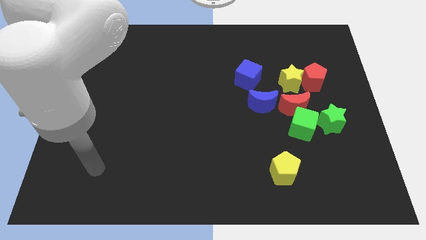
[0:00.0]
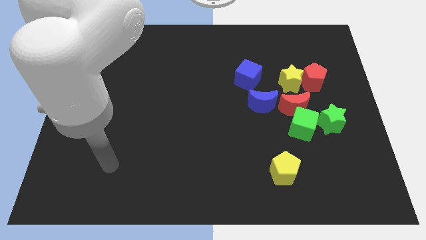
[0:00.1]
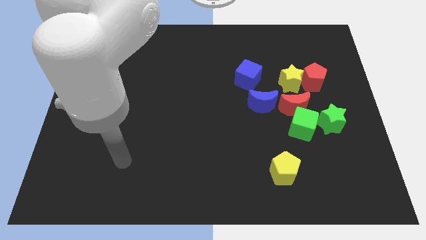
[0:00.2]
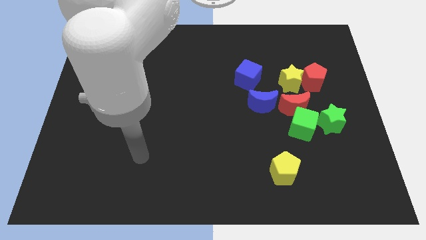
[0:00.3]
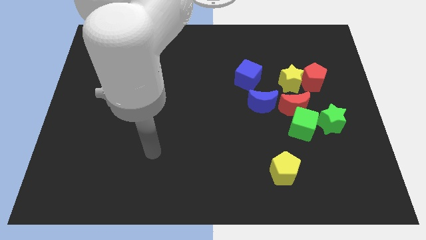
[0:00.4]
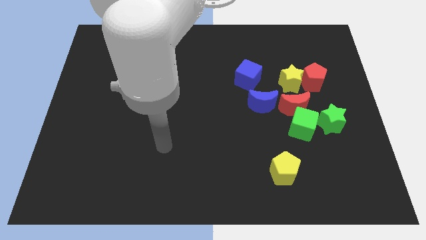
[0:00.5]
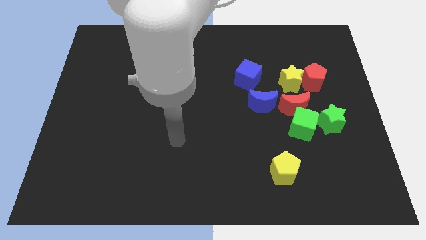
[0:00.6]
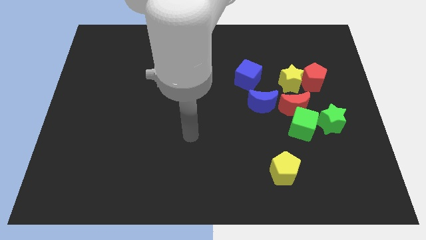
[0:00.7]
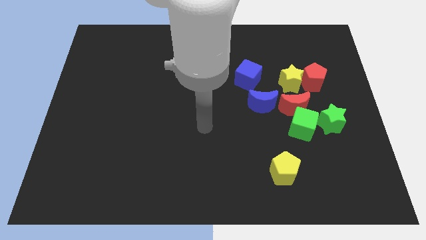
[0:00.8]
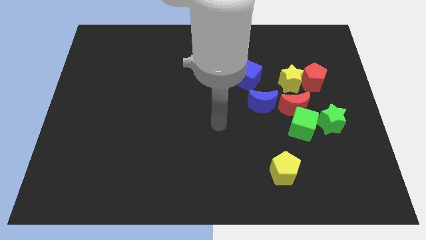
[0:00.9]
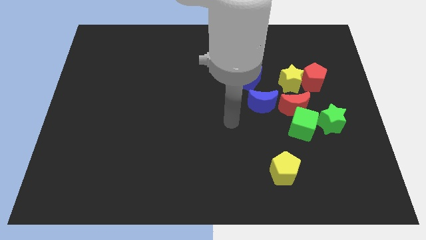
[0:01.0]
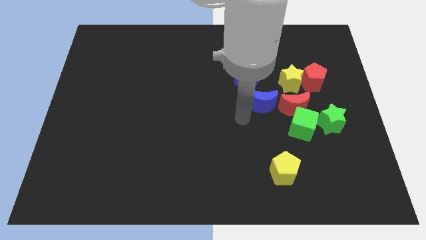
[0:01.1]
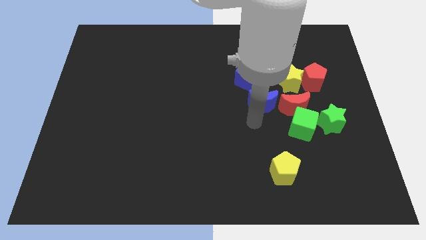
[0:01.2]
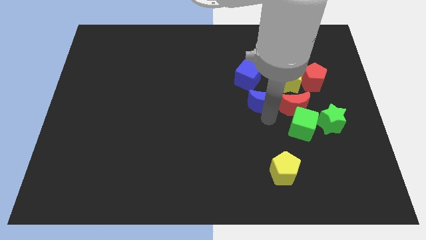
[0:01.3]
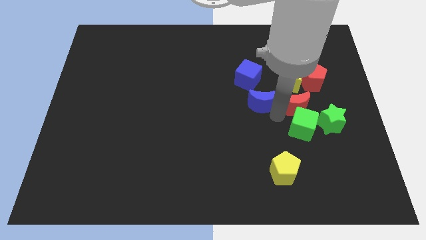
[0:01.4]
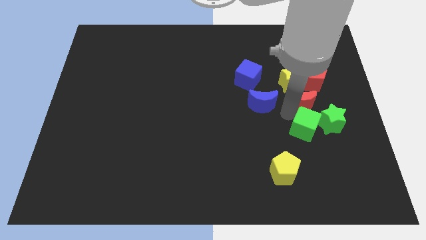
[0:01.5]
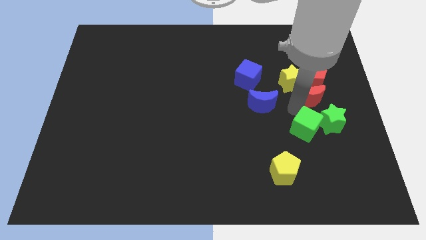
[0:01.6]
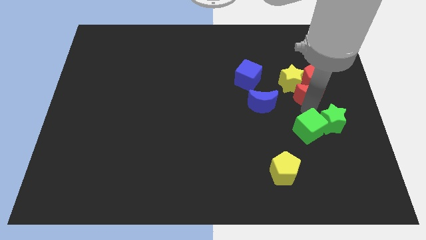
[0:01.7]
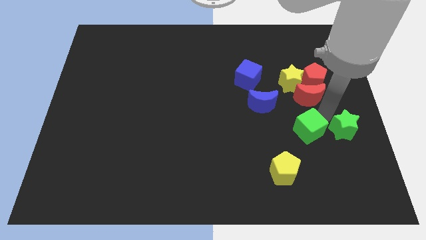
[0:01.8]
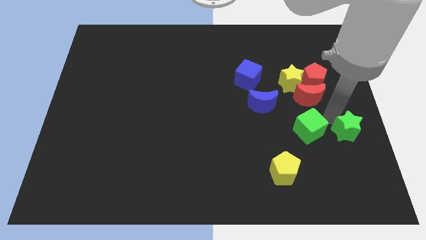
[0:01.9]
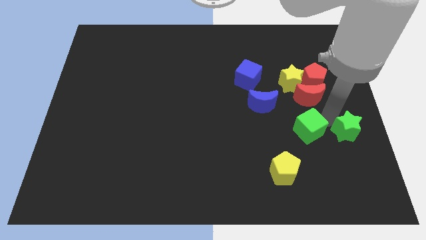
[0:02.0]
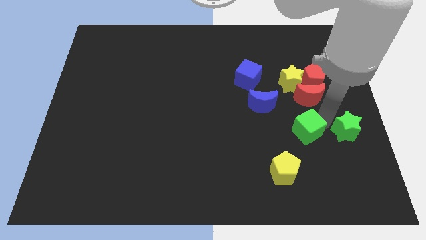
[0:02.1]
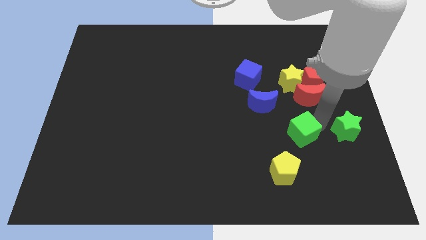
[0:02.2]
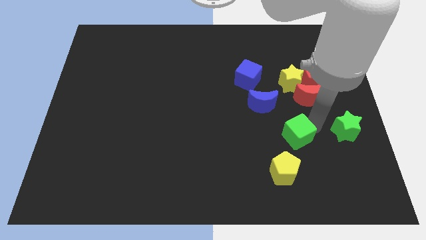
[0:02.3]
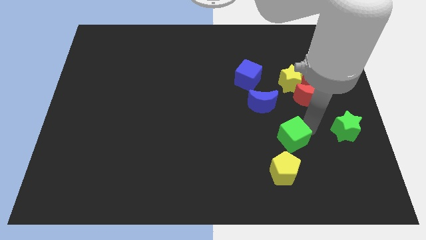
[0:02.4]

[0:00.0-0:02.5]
move the green cube away from the red moon and green star

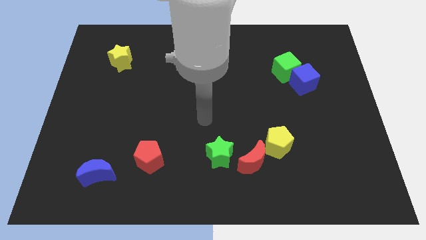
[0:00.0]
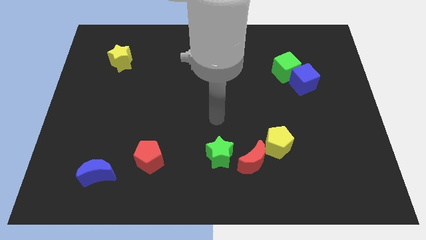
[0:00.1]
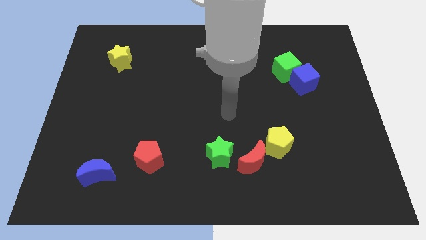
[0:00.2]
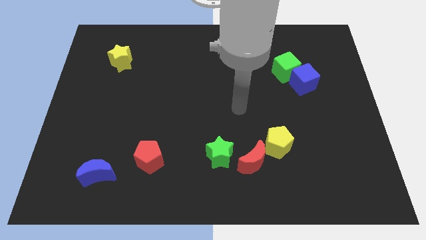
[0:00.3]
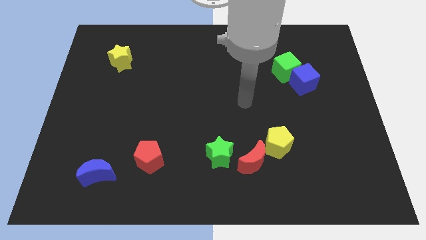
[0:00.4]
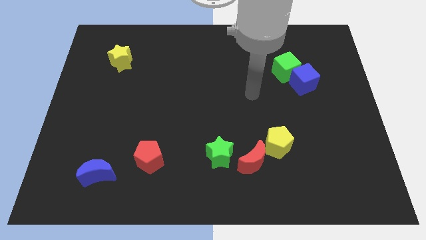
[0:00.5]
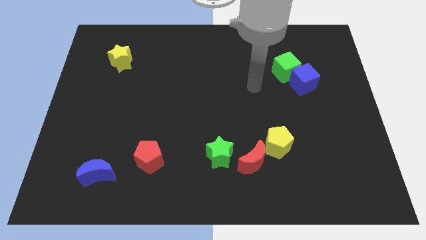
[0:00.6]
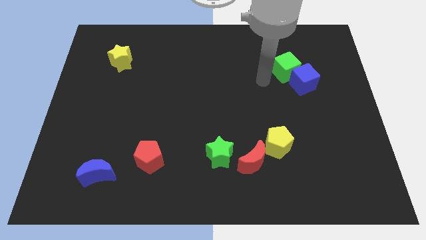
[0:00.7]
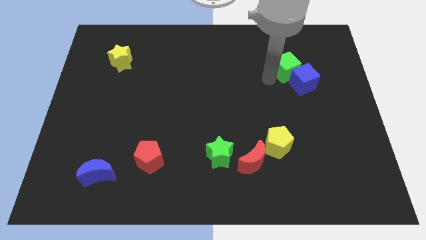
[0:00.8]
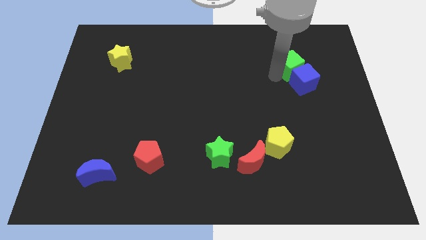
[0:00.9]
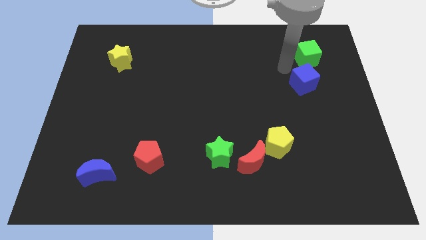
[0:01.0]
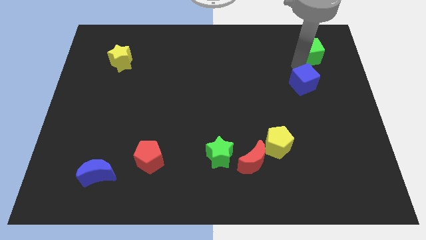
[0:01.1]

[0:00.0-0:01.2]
separate the blue cube from the green cube

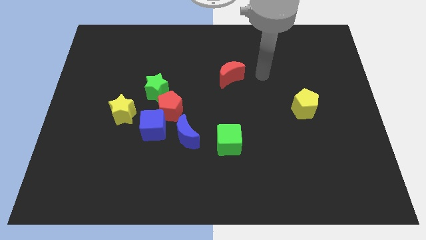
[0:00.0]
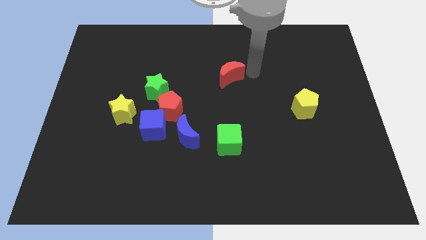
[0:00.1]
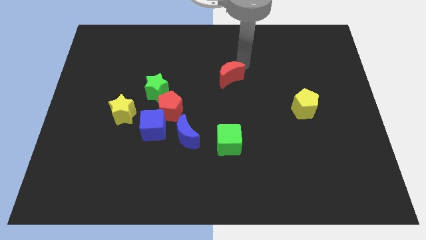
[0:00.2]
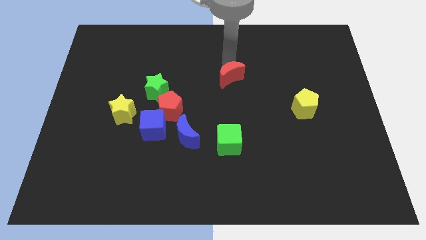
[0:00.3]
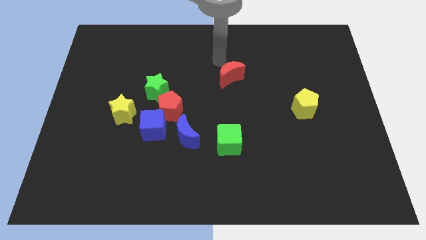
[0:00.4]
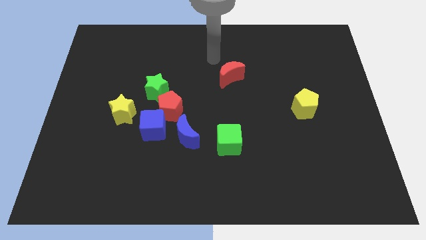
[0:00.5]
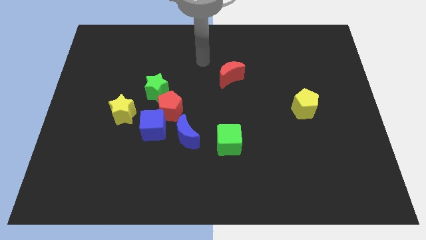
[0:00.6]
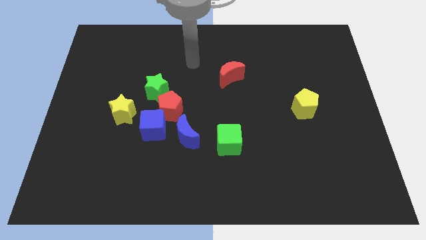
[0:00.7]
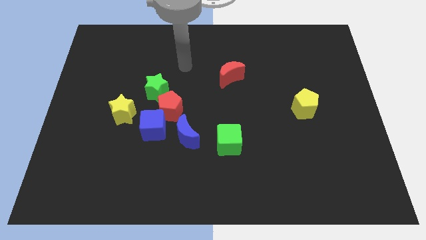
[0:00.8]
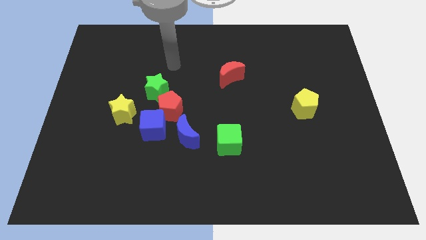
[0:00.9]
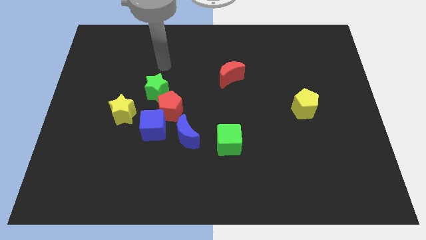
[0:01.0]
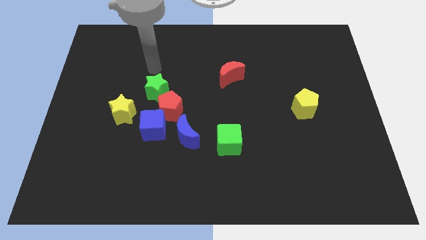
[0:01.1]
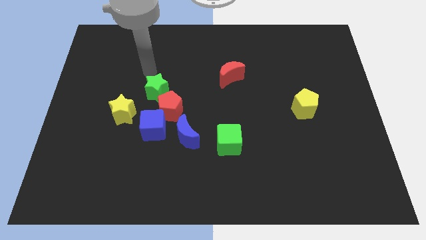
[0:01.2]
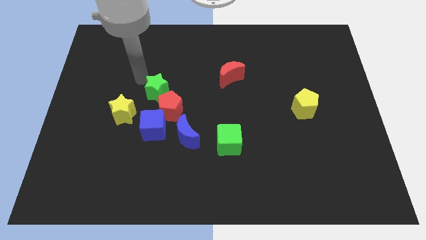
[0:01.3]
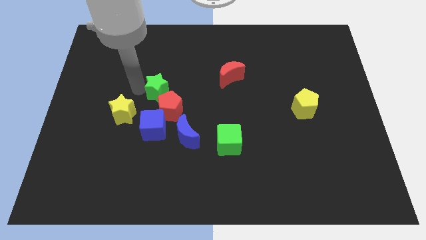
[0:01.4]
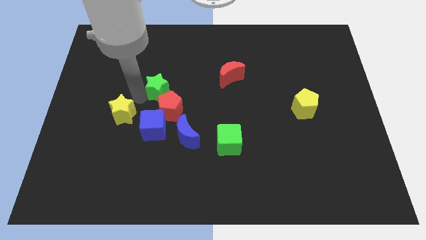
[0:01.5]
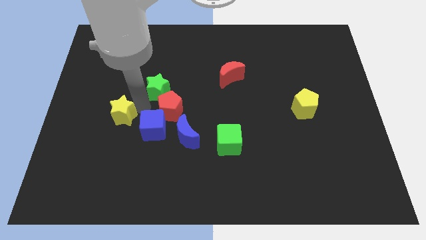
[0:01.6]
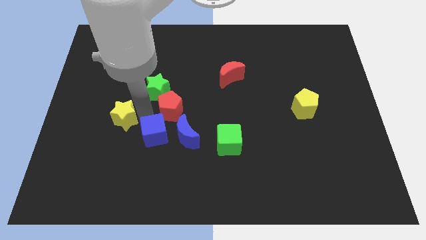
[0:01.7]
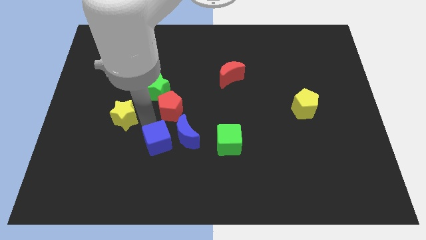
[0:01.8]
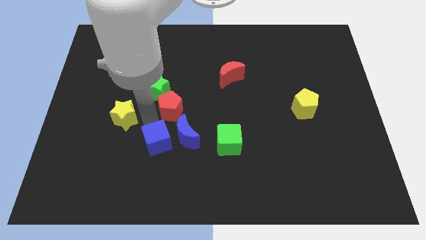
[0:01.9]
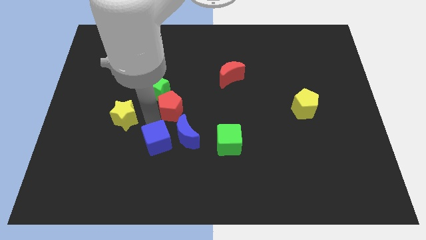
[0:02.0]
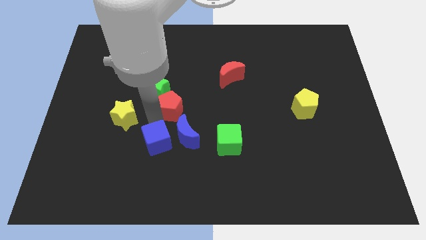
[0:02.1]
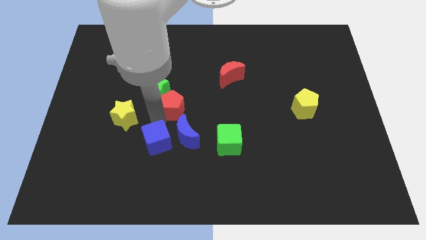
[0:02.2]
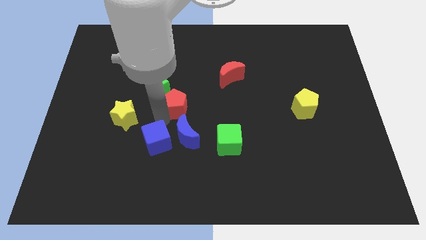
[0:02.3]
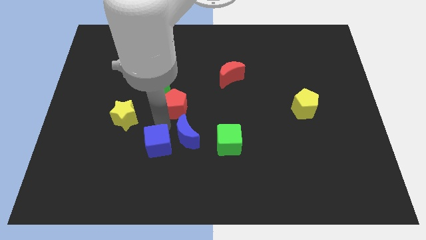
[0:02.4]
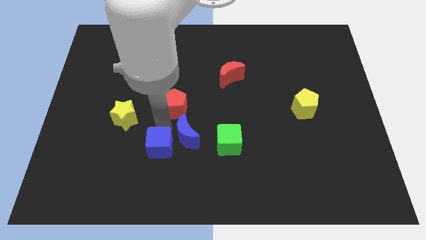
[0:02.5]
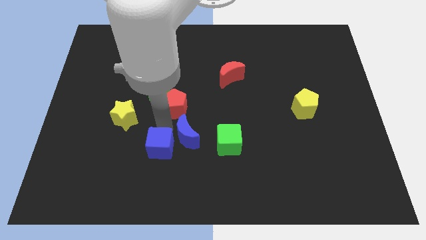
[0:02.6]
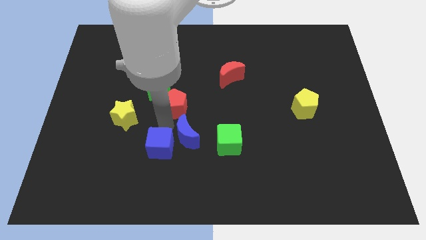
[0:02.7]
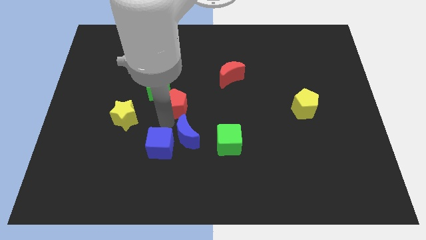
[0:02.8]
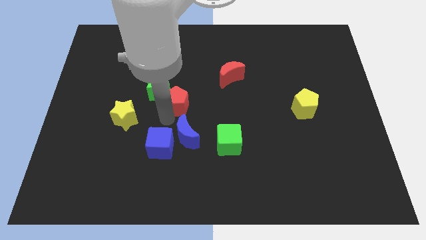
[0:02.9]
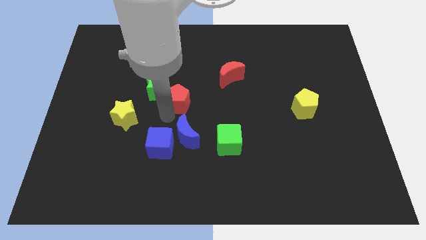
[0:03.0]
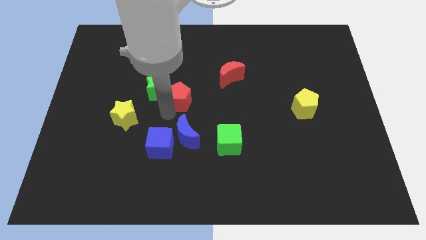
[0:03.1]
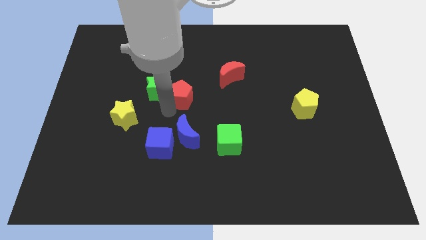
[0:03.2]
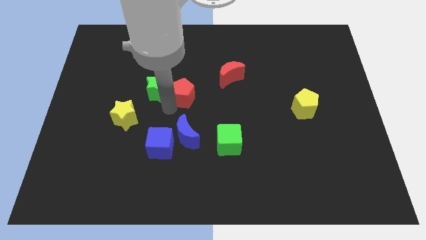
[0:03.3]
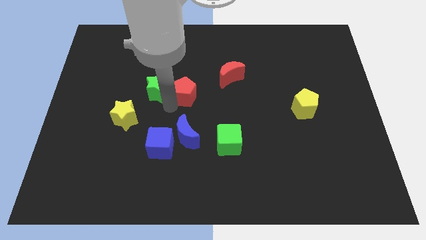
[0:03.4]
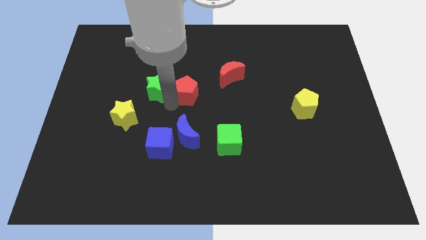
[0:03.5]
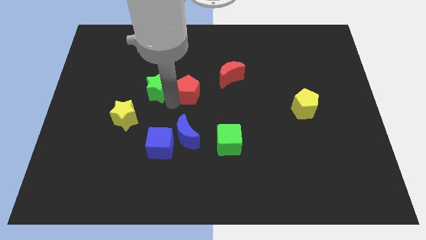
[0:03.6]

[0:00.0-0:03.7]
move the red pentagon away from the clump

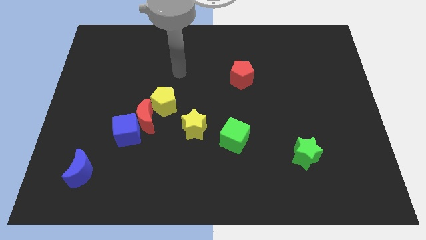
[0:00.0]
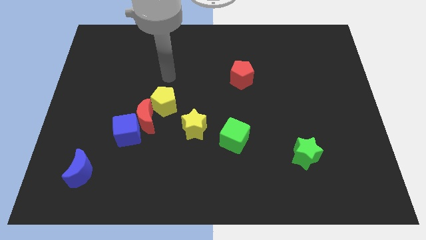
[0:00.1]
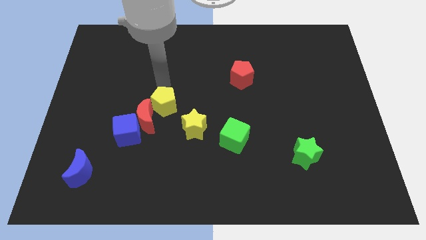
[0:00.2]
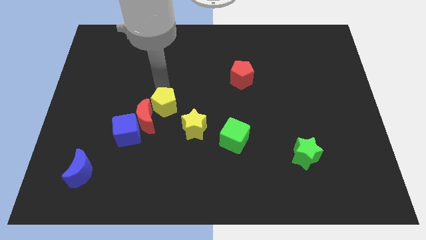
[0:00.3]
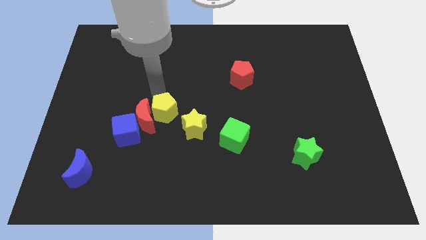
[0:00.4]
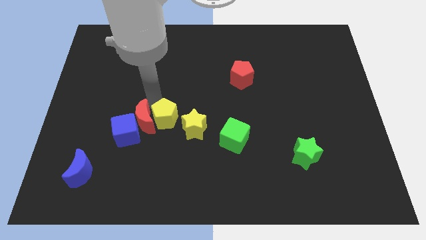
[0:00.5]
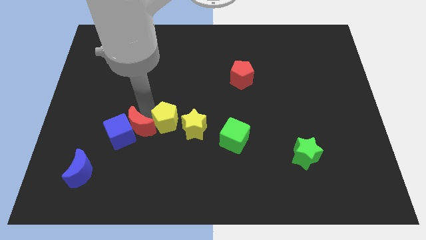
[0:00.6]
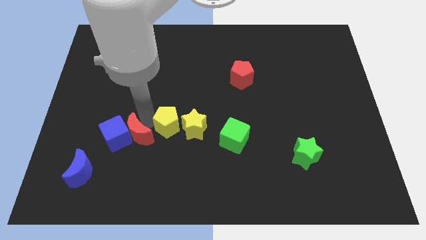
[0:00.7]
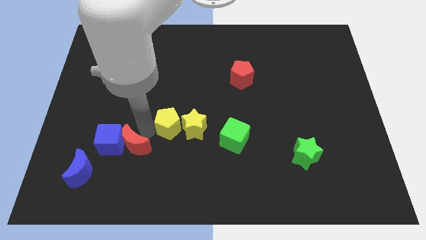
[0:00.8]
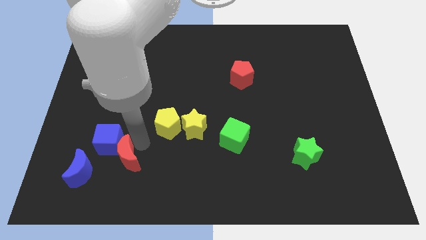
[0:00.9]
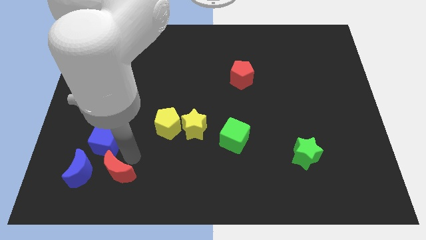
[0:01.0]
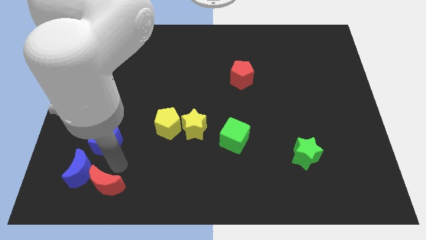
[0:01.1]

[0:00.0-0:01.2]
pull the blue cube apart from the red moon

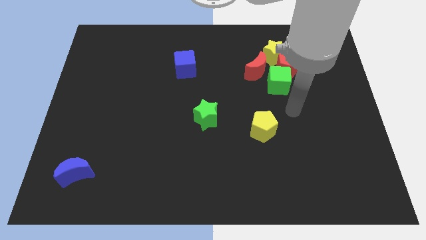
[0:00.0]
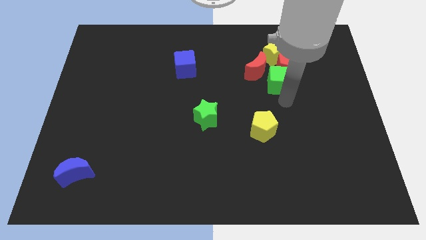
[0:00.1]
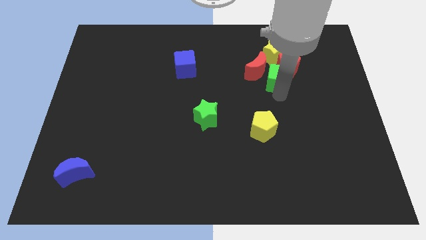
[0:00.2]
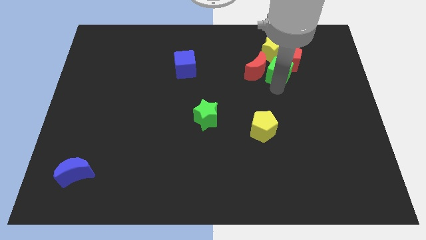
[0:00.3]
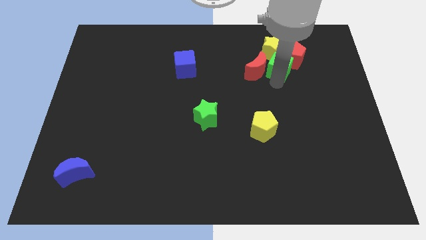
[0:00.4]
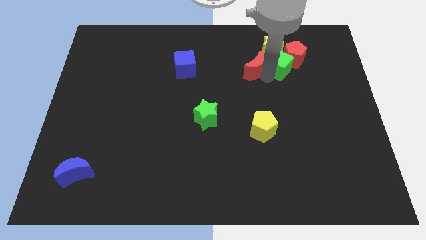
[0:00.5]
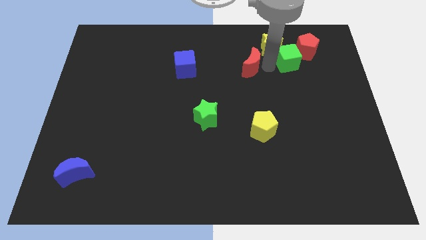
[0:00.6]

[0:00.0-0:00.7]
pull the red pentagon apart from the group of blocks
